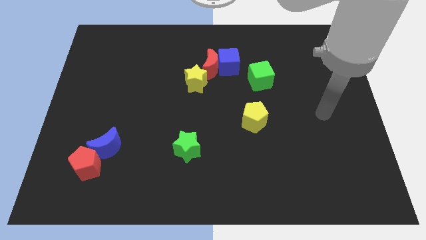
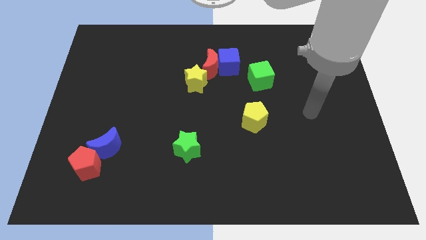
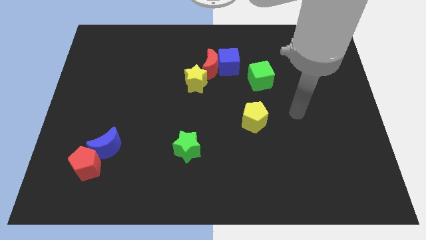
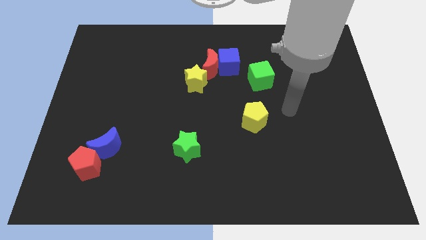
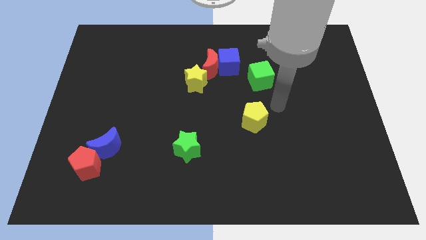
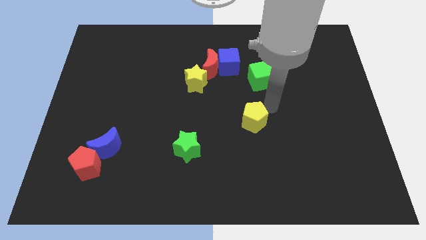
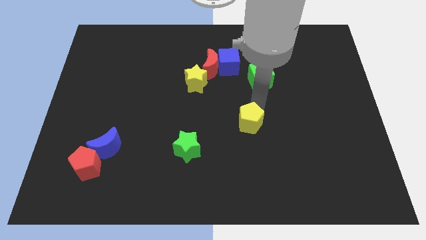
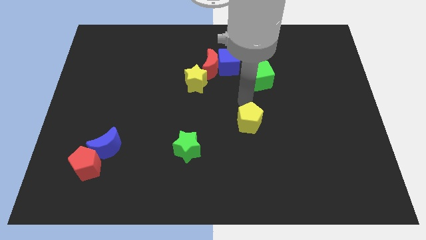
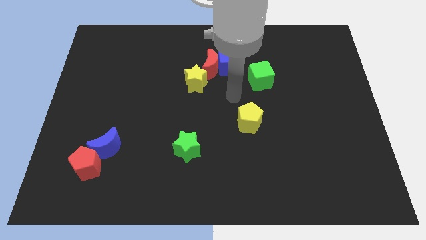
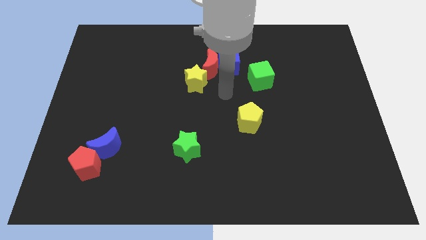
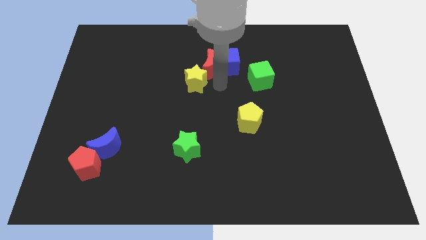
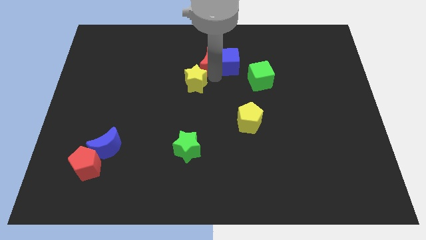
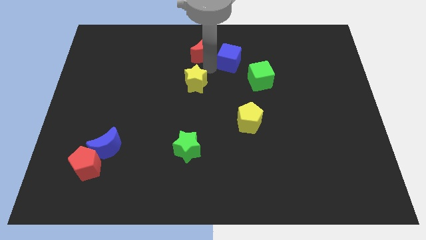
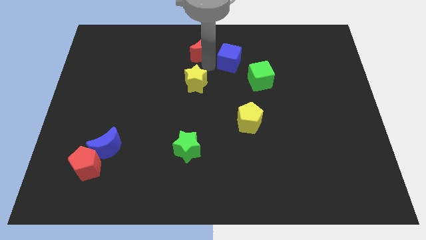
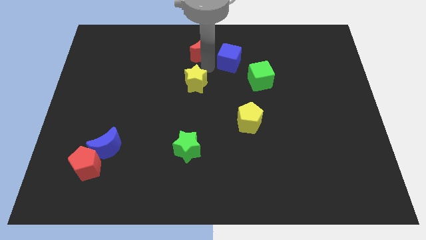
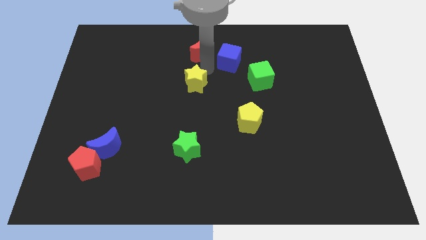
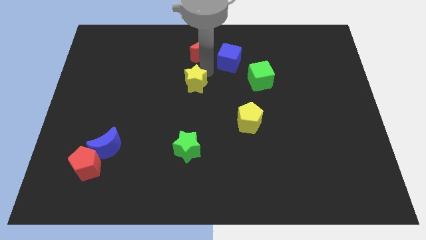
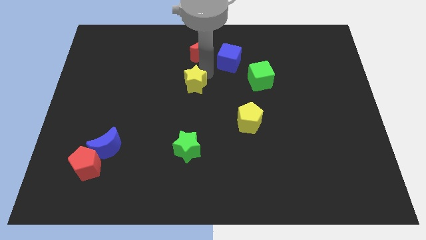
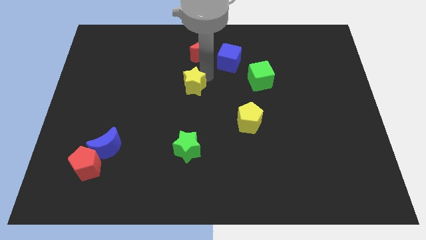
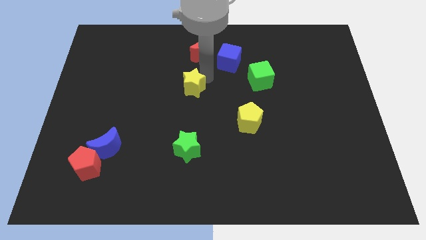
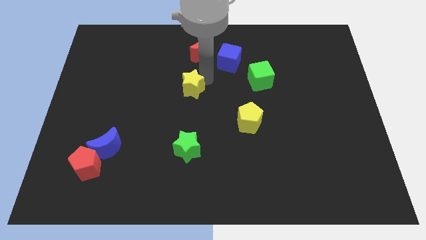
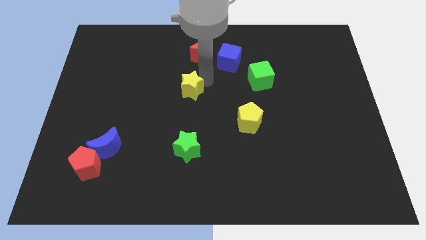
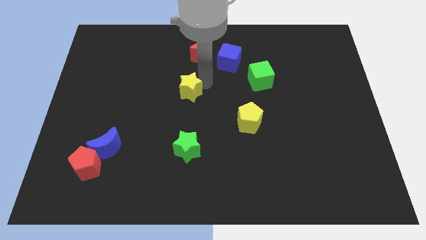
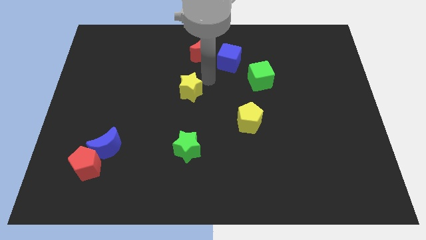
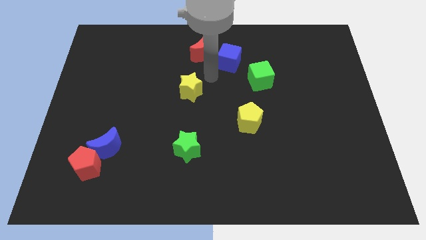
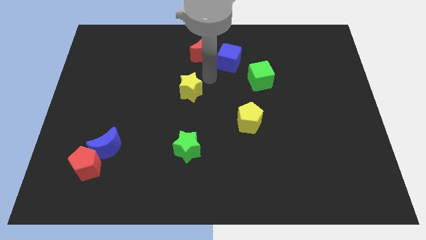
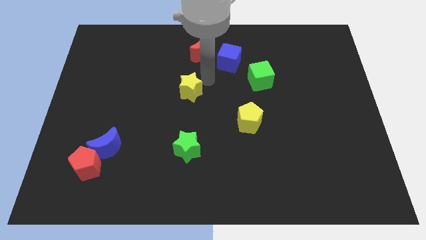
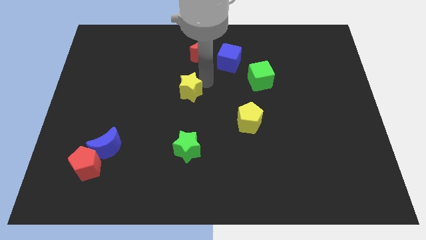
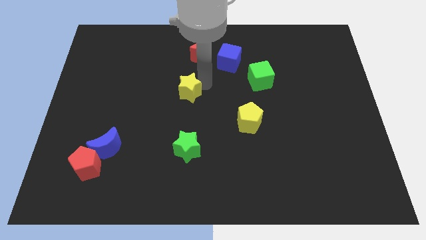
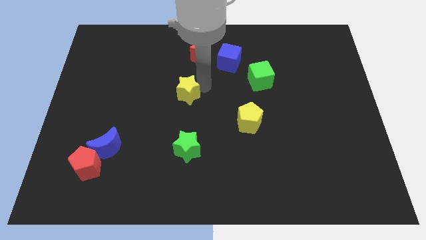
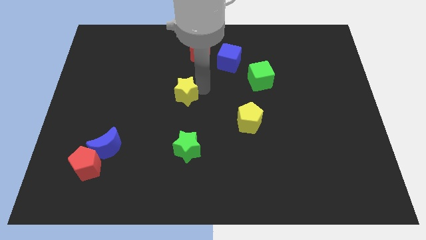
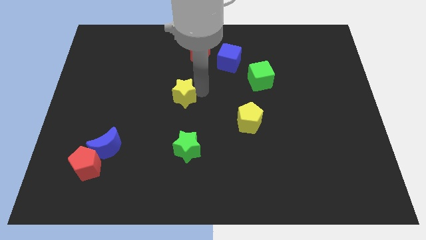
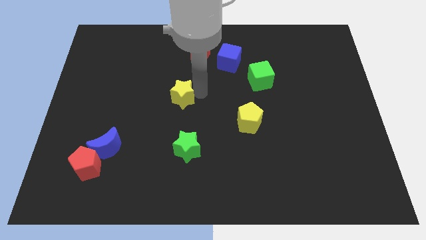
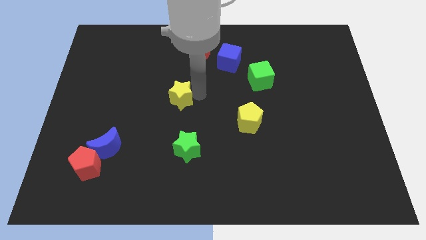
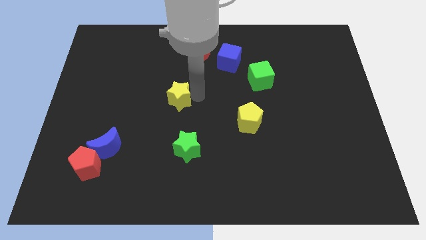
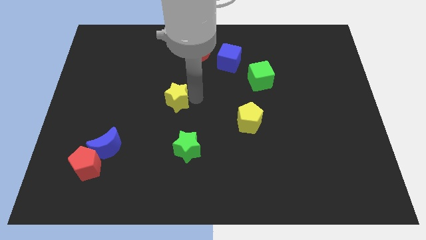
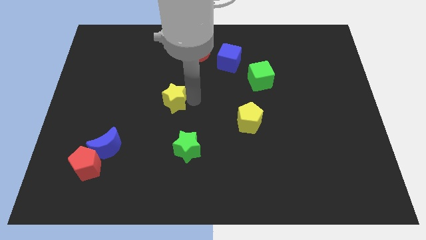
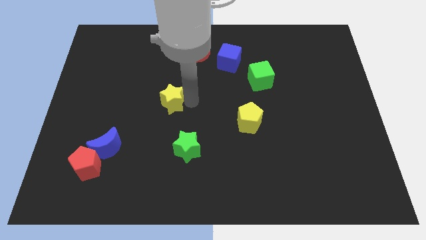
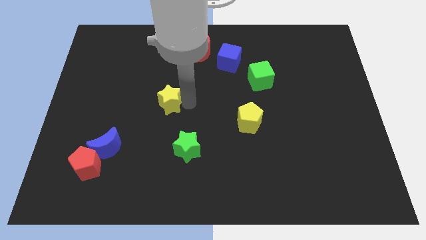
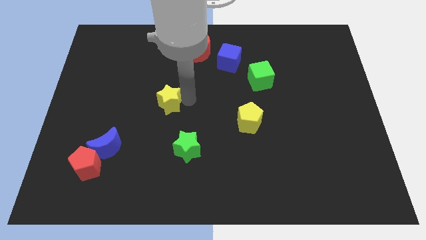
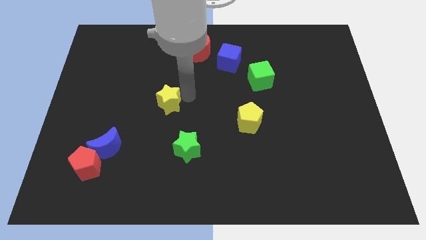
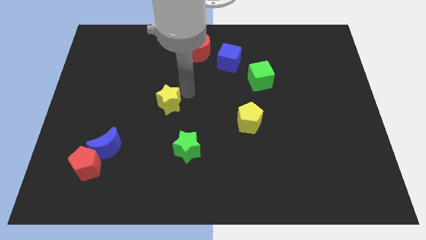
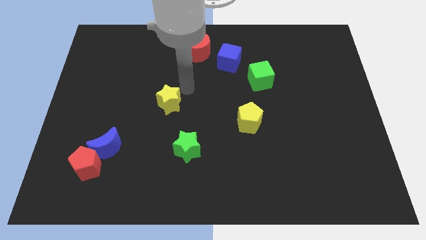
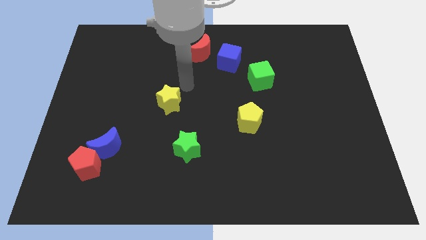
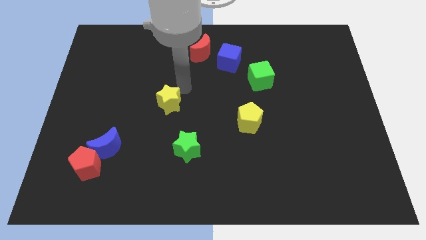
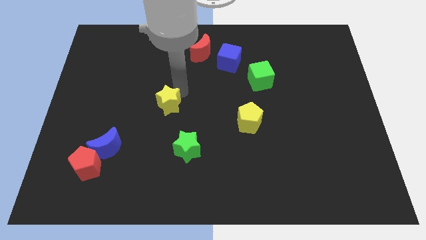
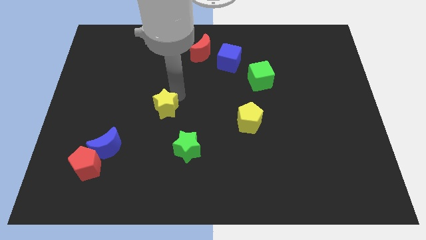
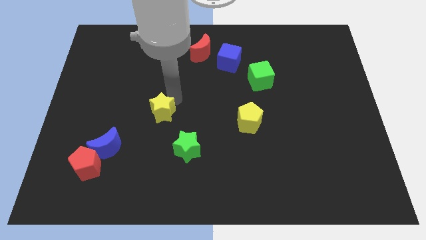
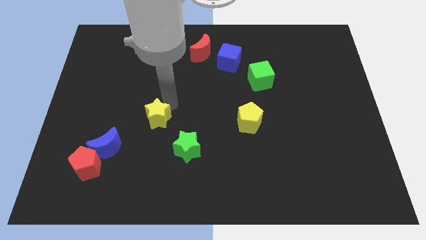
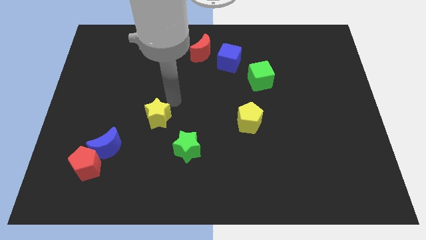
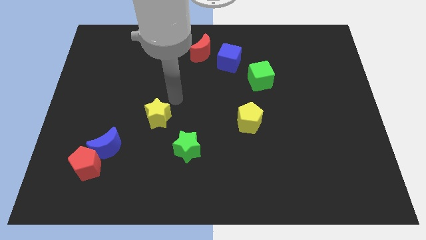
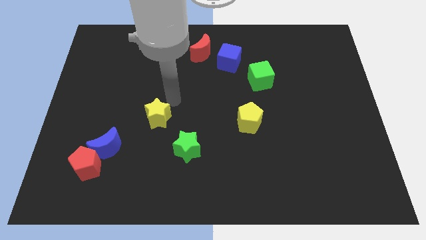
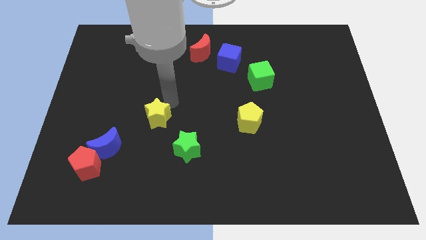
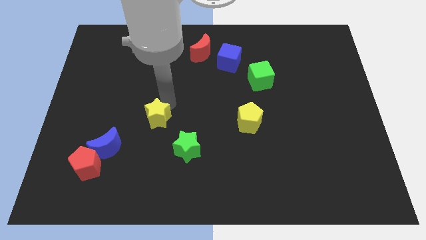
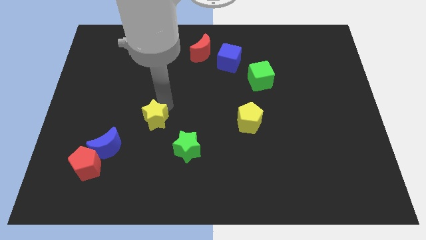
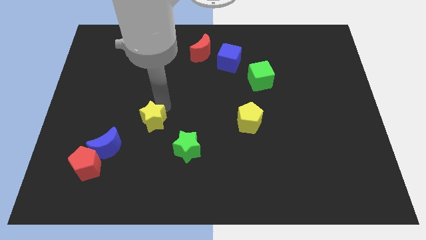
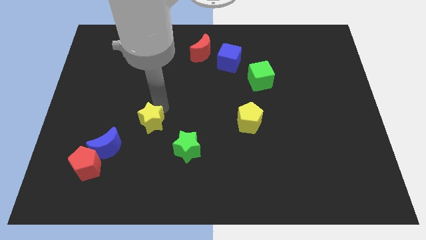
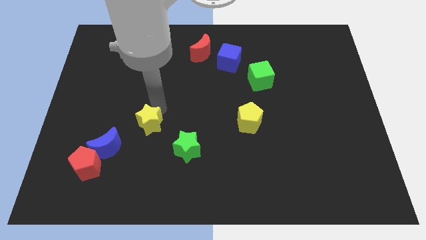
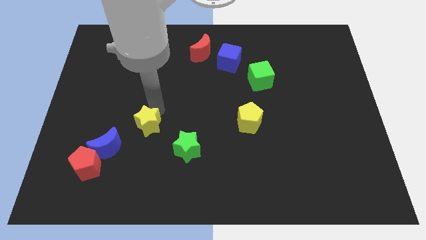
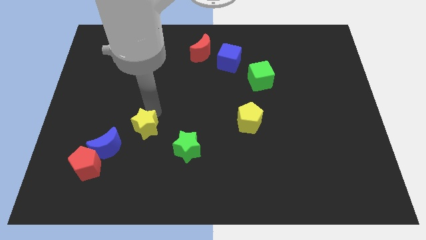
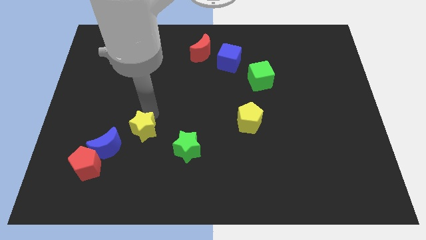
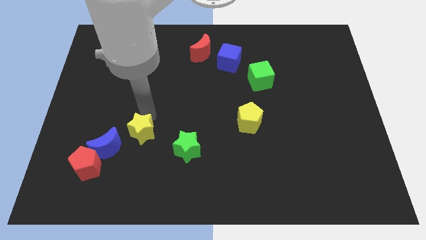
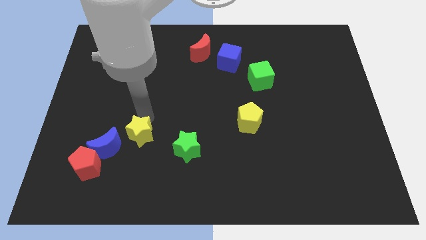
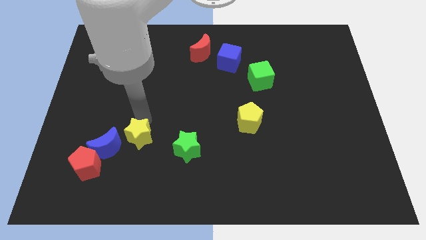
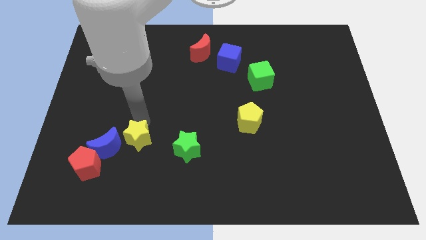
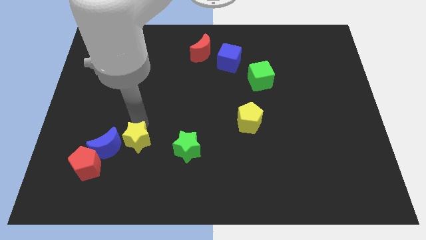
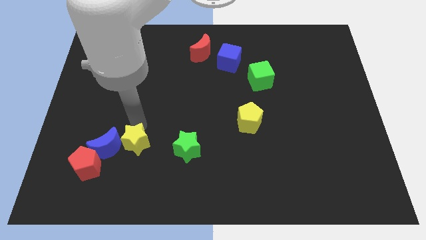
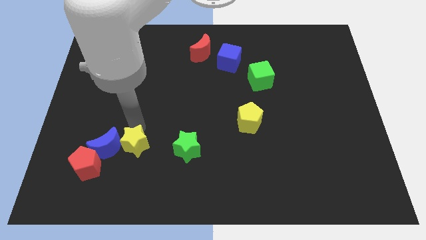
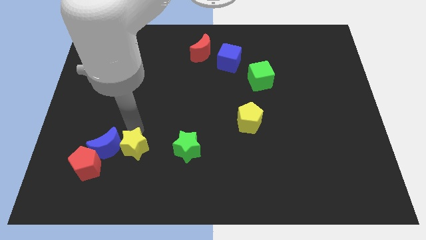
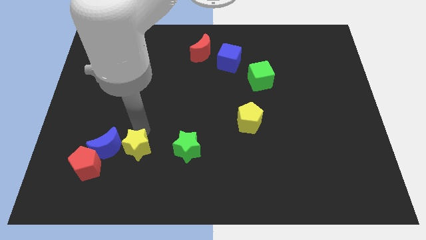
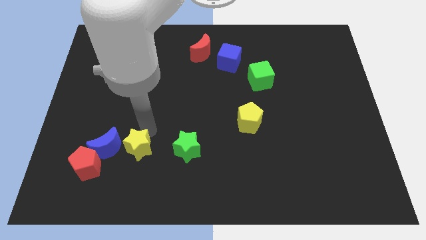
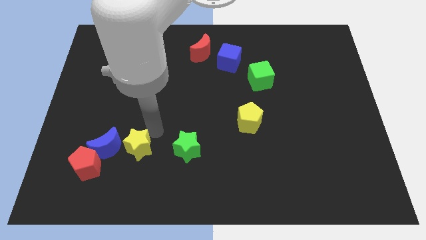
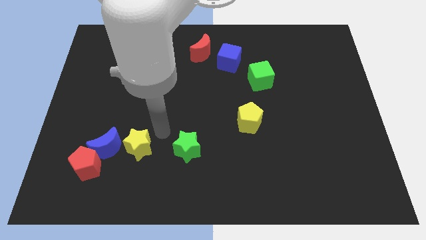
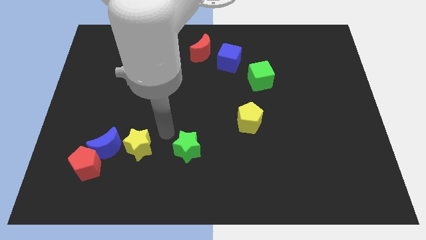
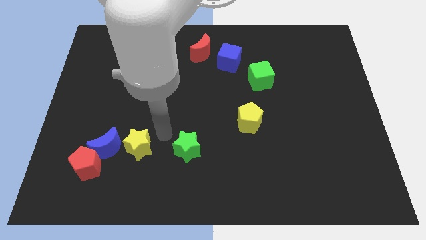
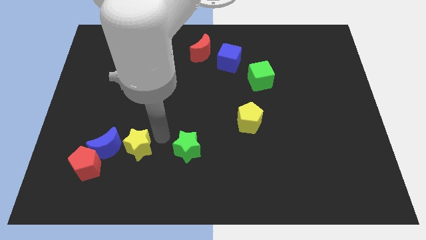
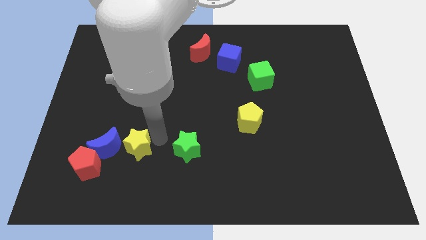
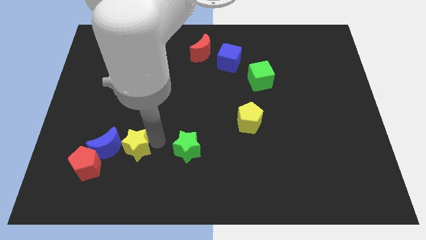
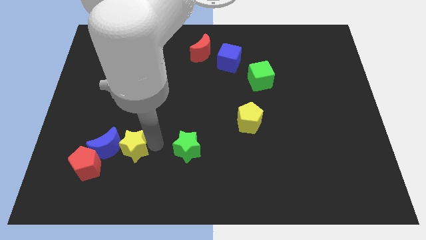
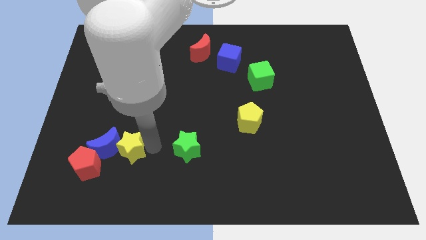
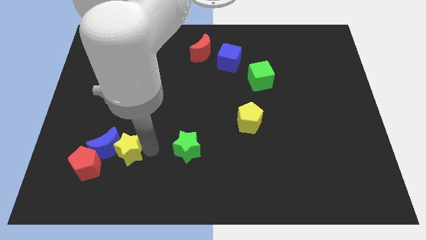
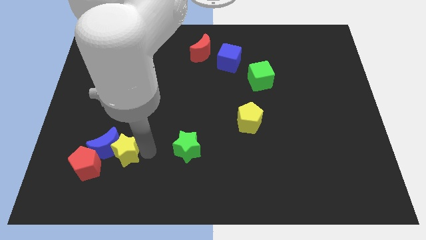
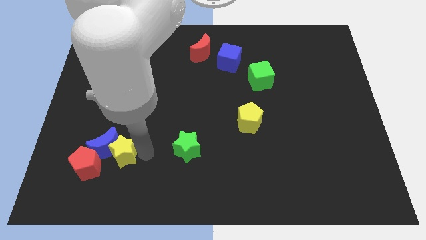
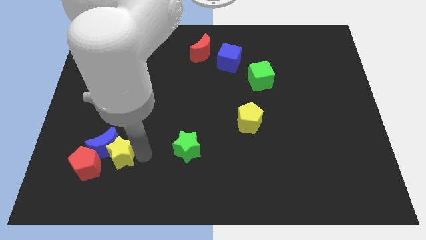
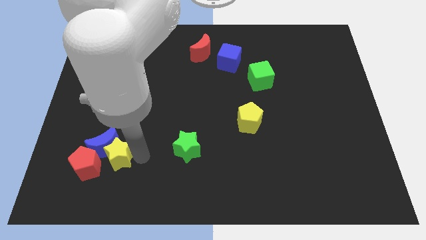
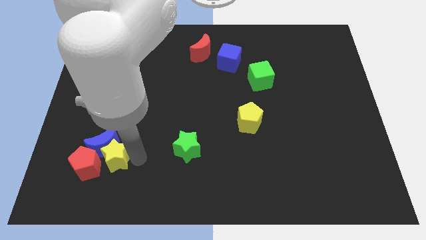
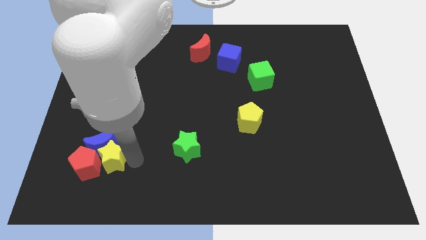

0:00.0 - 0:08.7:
move the yellow star next to the red pentagon
